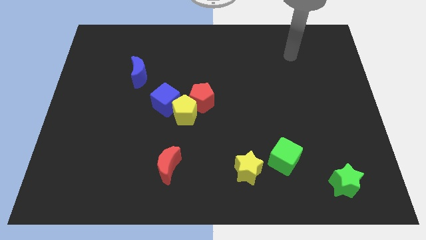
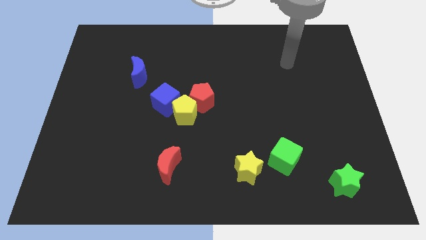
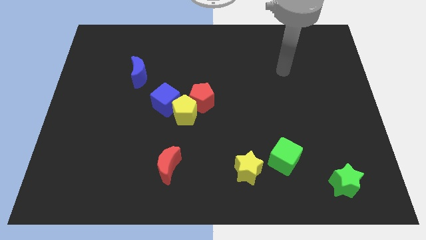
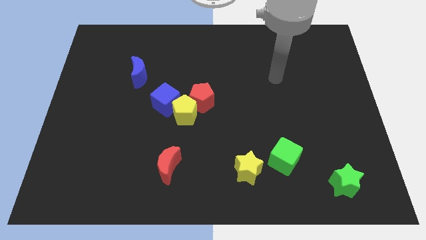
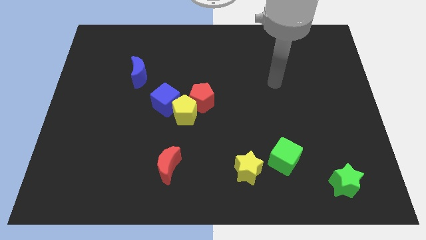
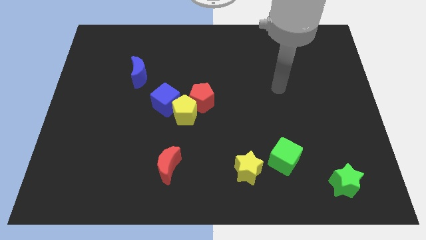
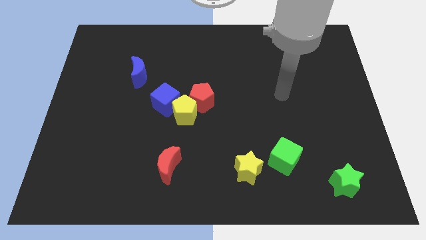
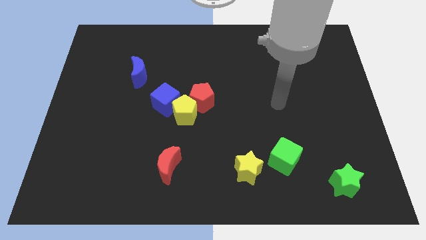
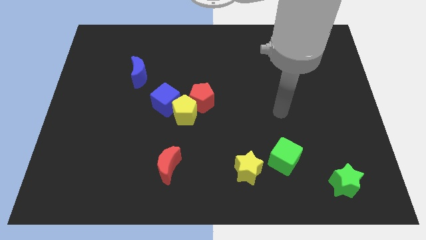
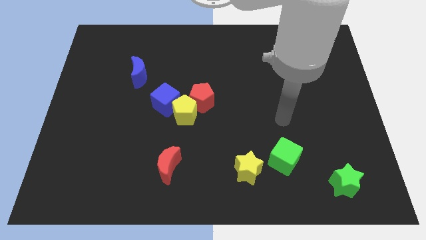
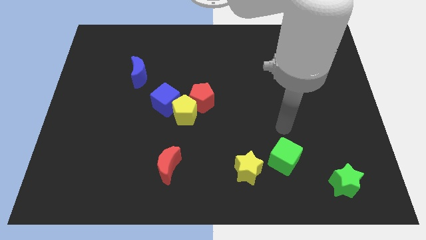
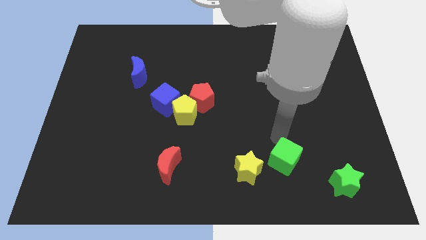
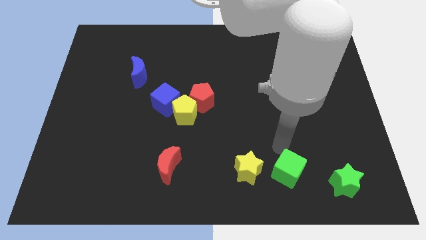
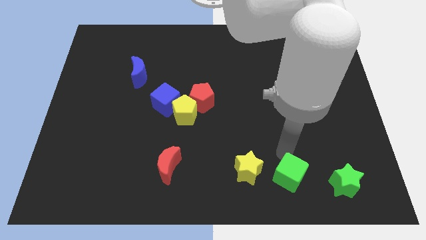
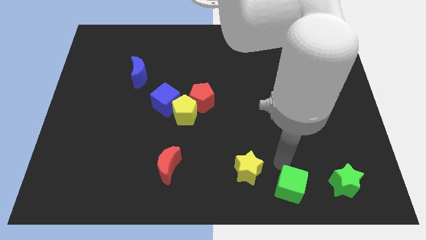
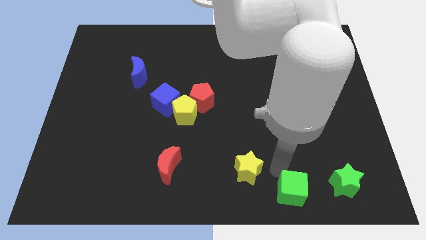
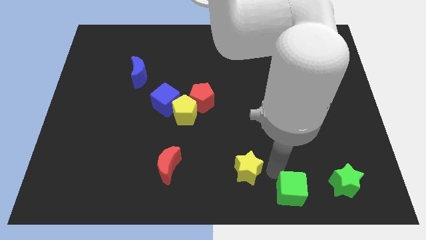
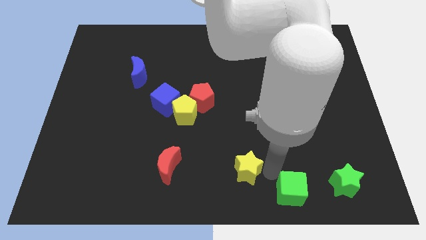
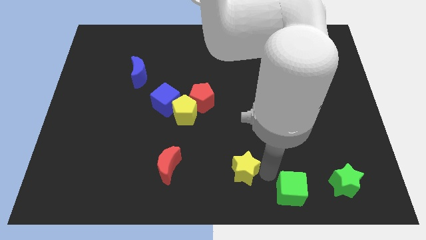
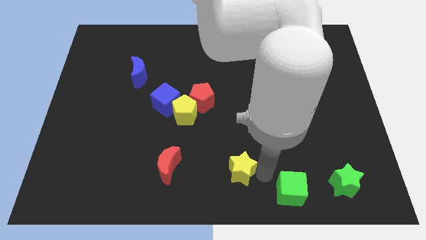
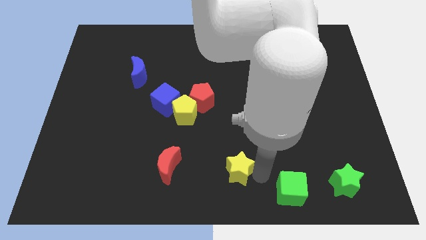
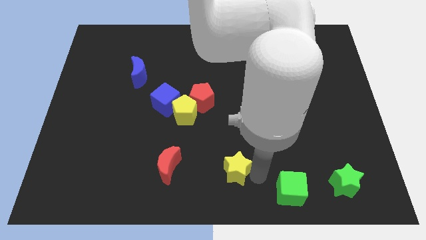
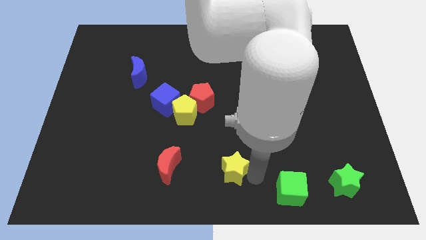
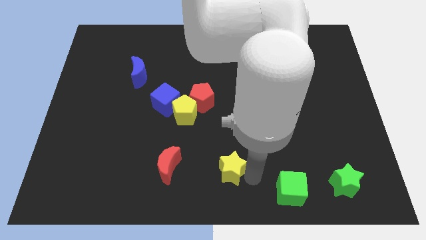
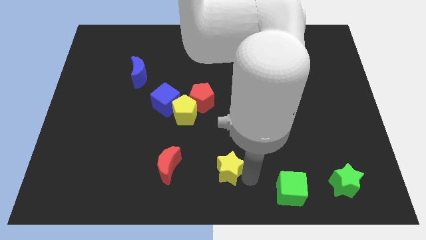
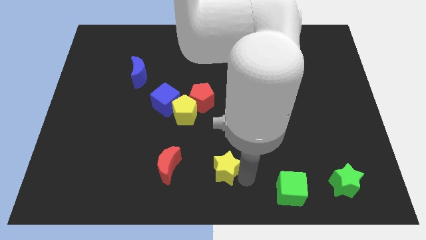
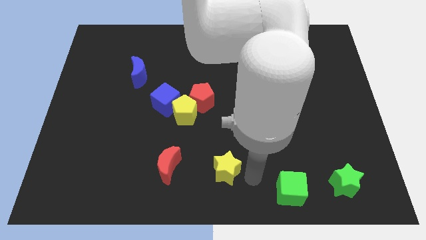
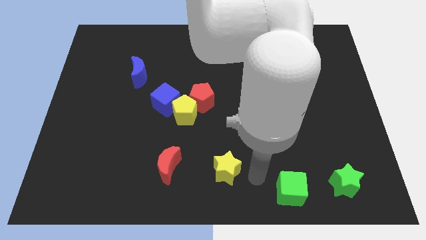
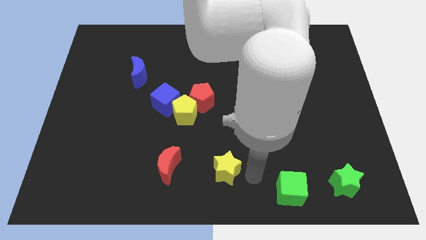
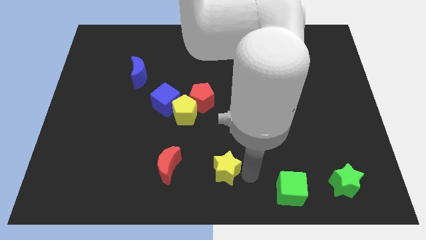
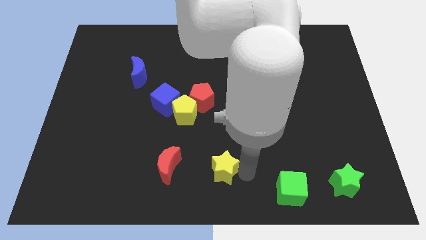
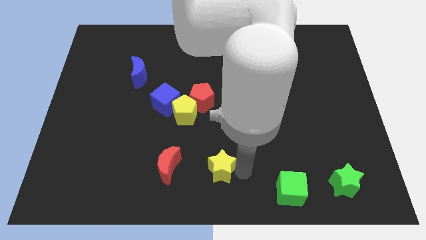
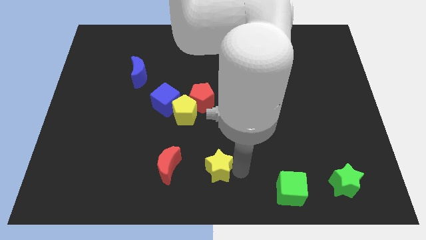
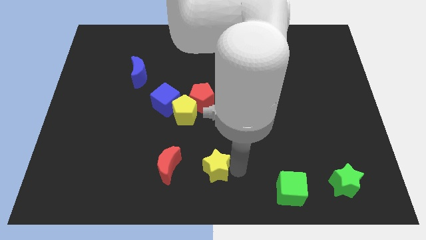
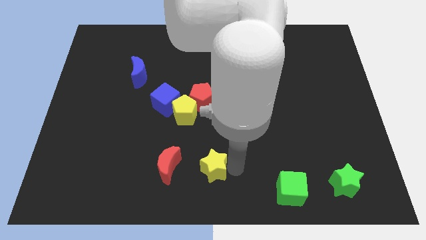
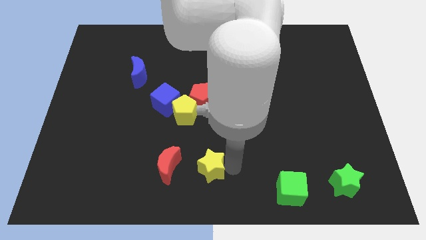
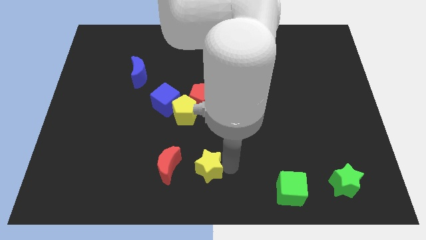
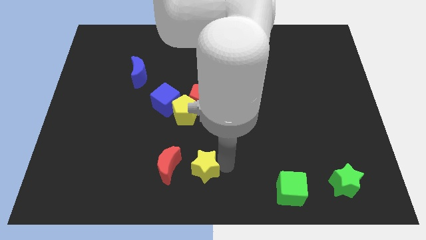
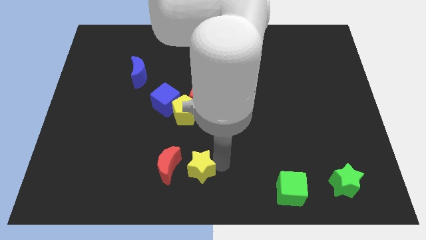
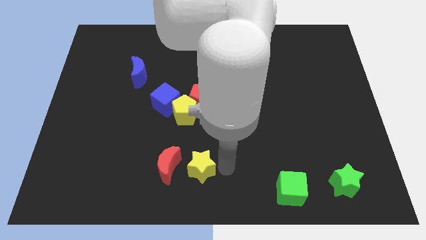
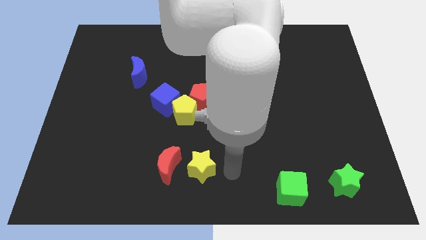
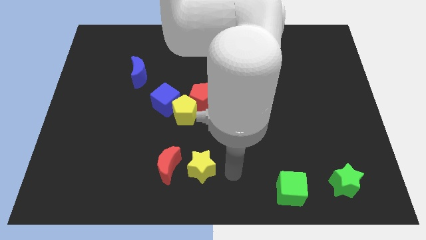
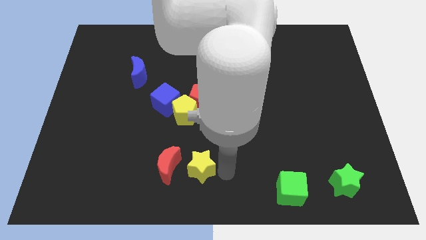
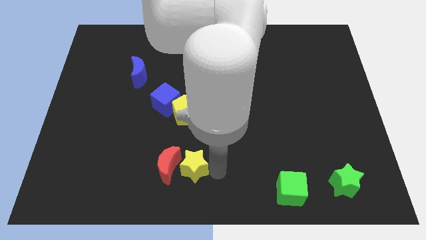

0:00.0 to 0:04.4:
move the yellow star close to the red moon

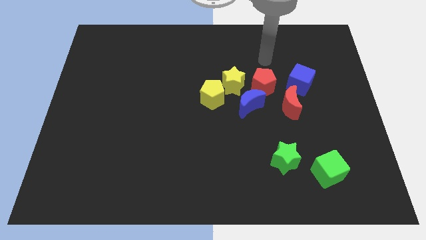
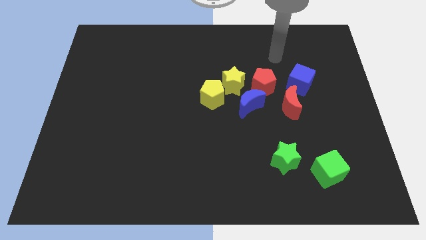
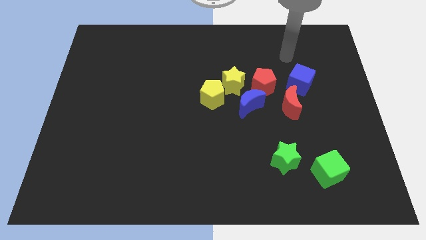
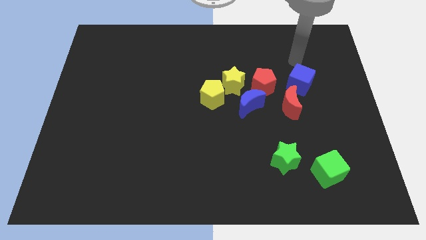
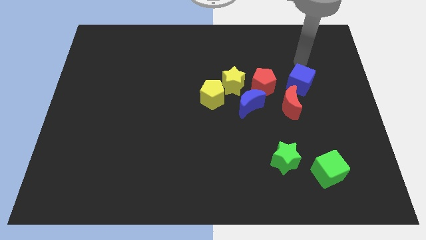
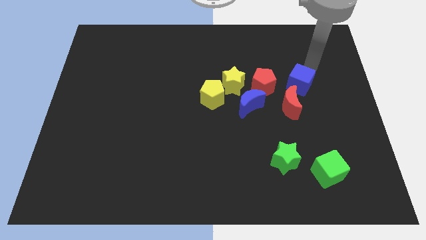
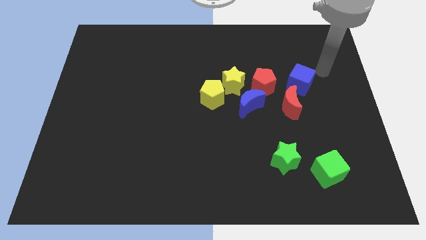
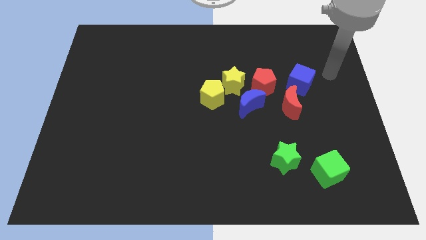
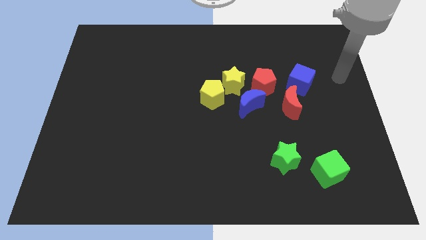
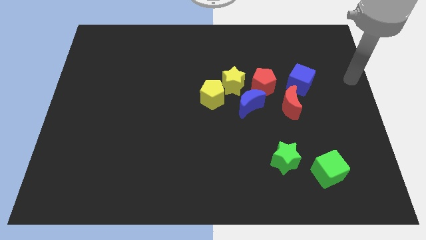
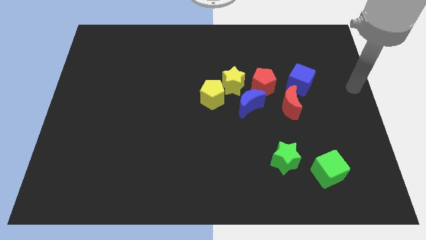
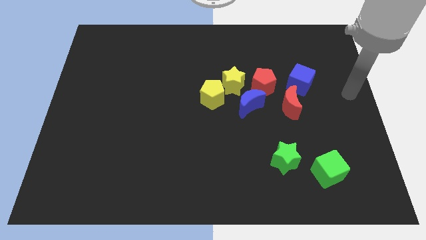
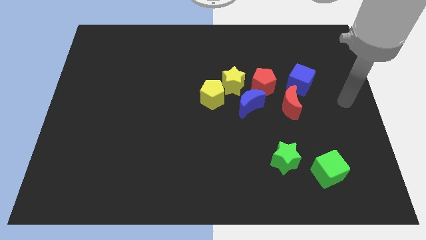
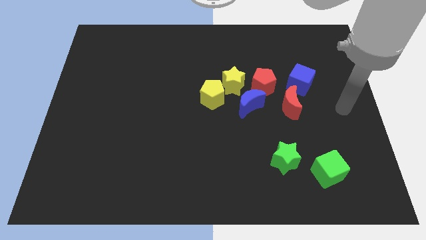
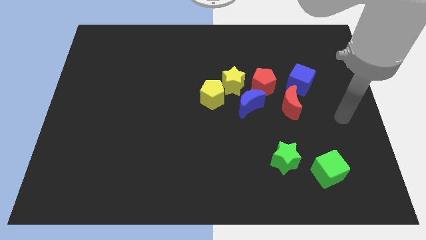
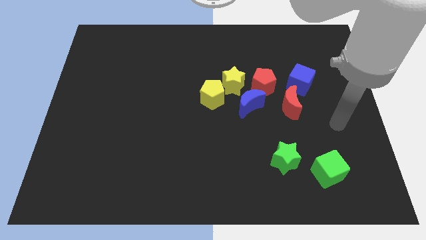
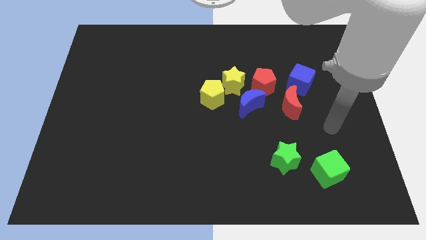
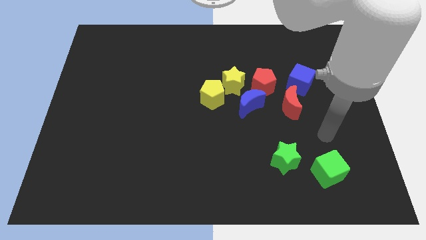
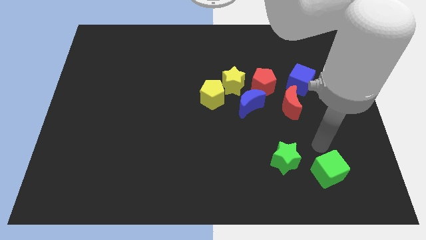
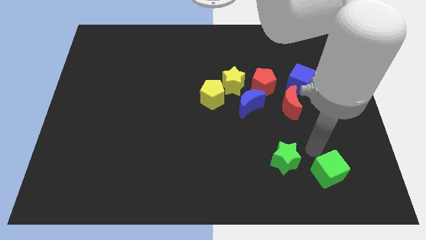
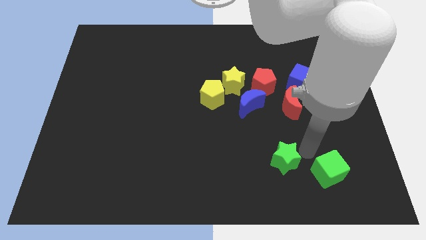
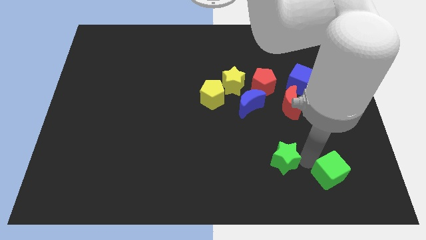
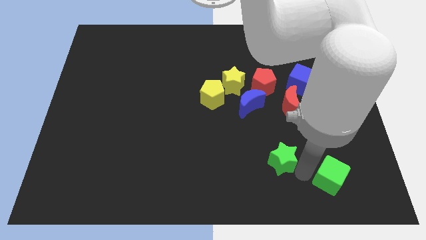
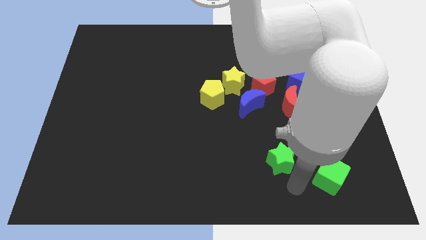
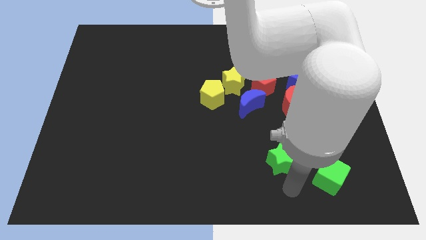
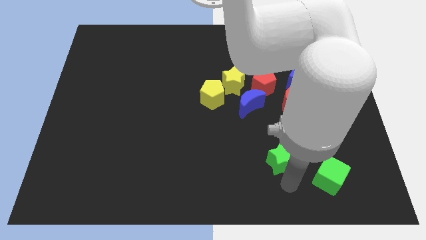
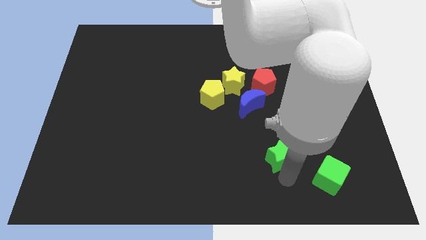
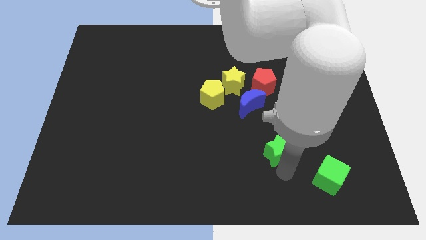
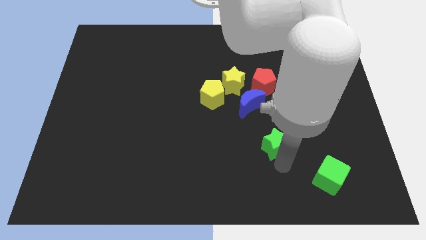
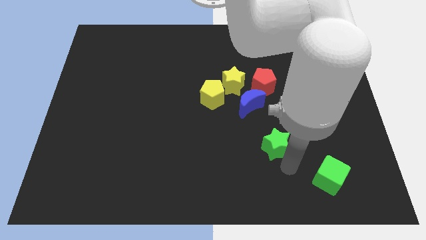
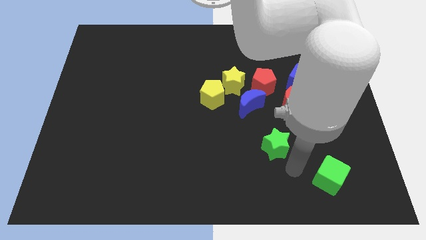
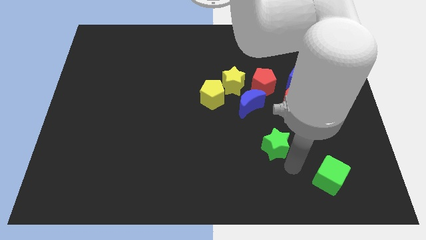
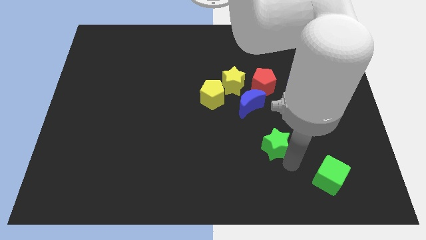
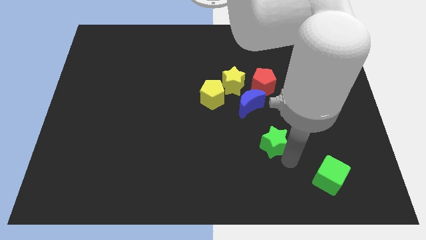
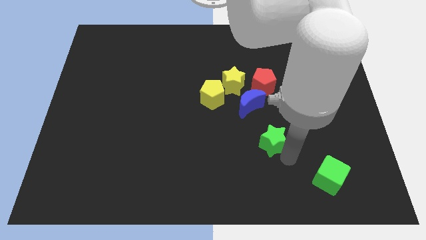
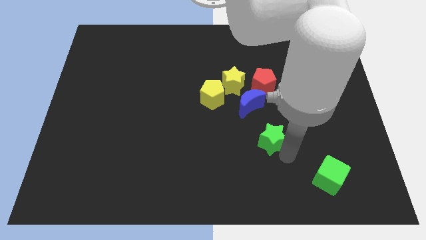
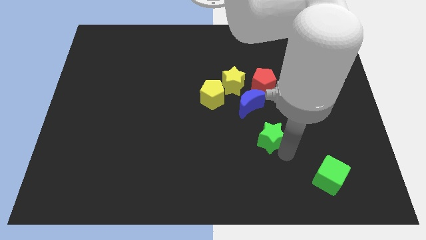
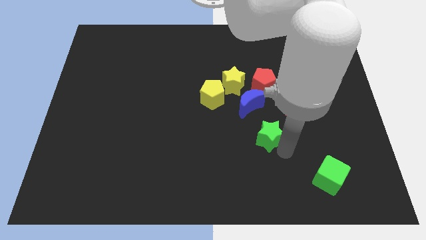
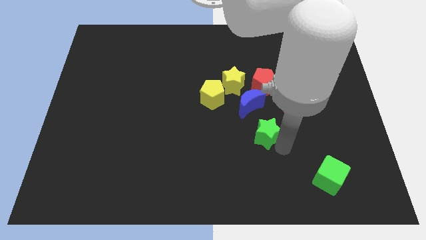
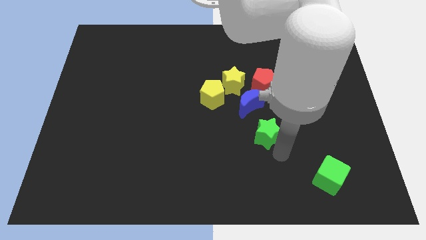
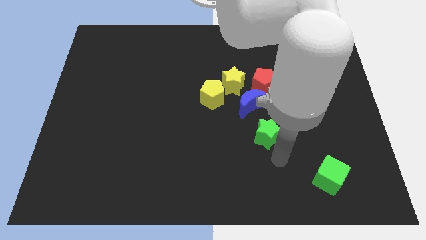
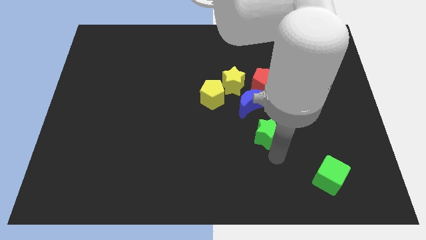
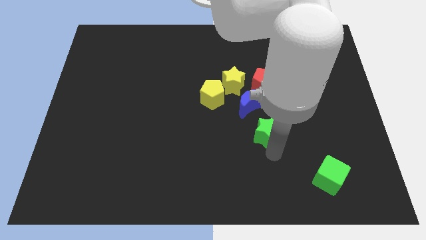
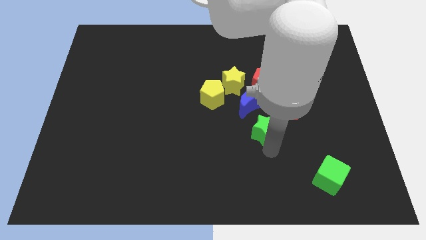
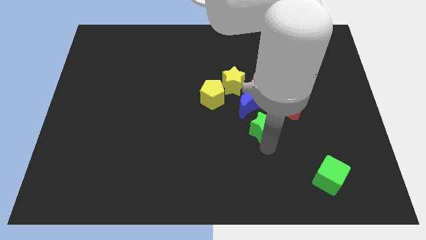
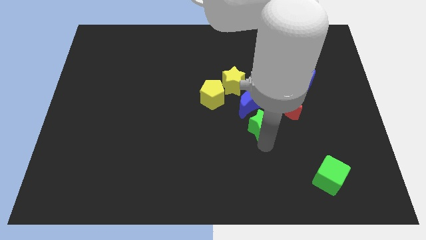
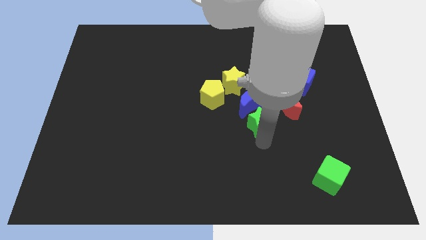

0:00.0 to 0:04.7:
move the green star towards the blue moon
